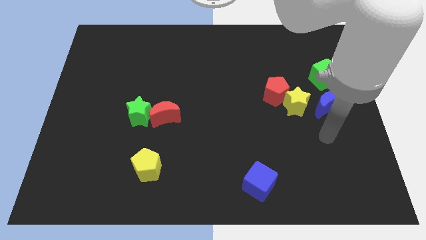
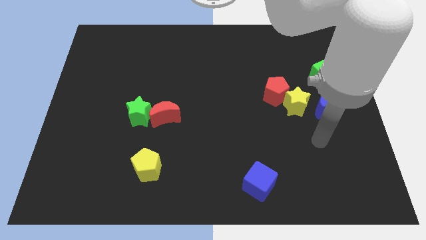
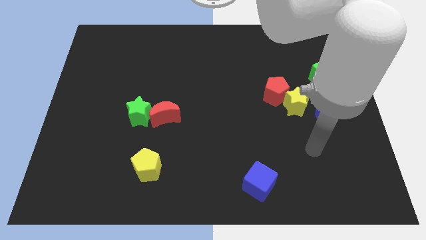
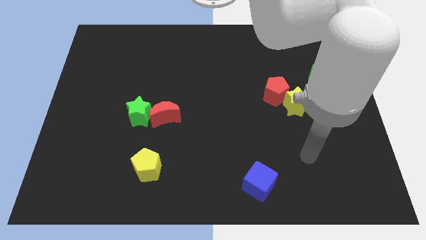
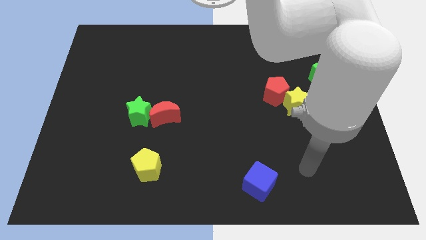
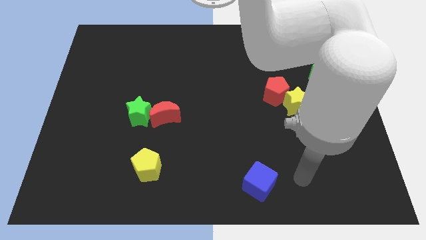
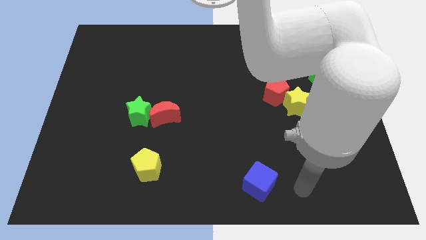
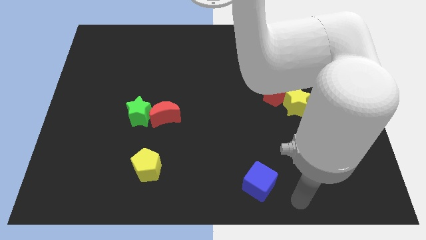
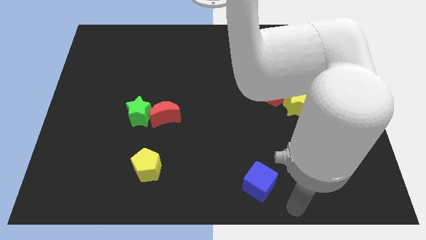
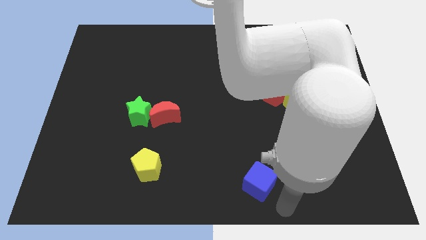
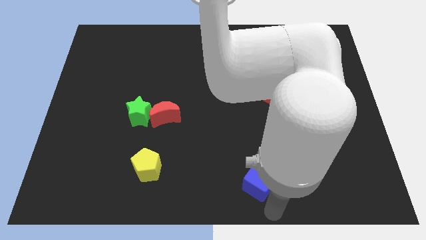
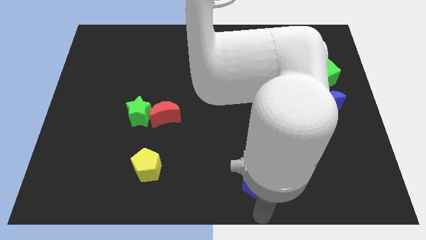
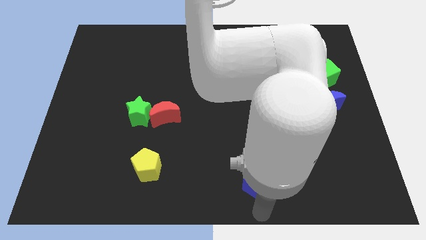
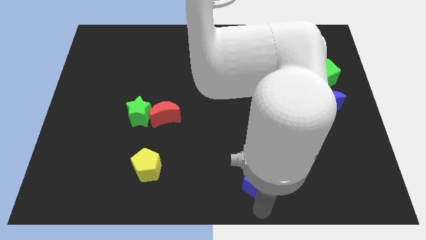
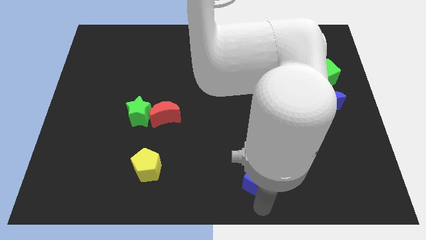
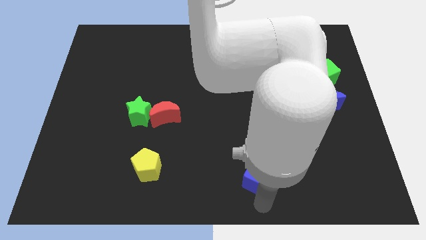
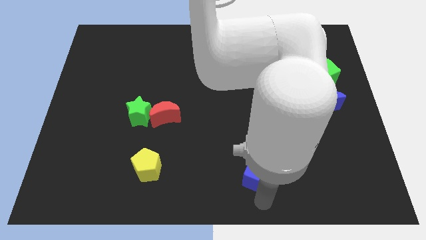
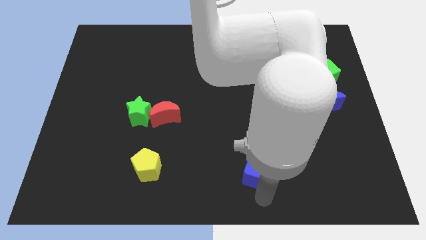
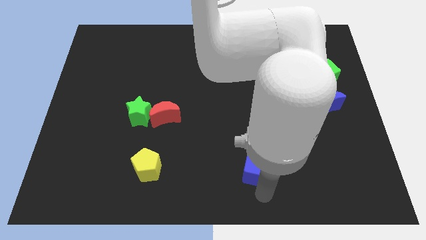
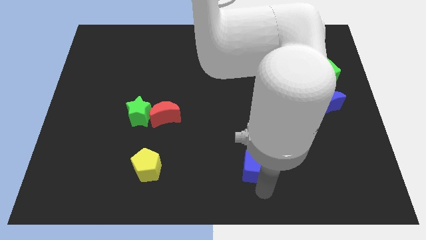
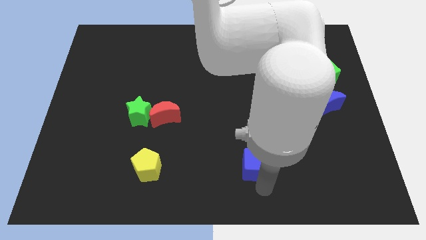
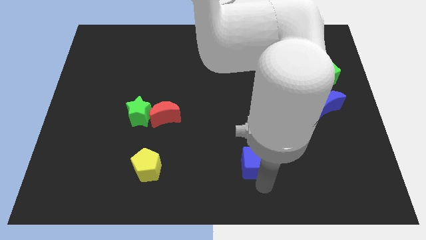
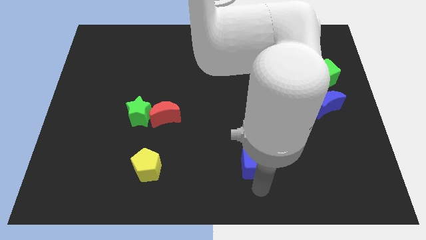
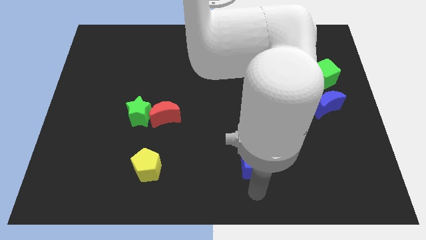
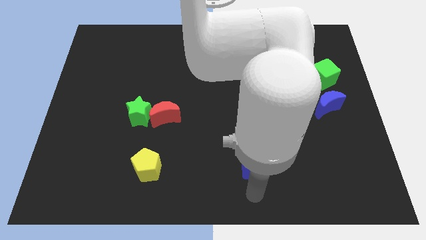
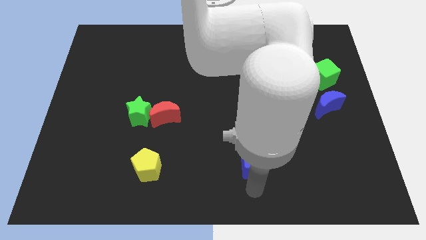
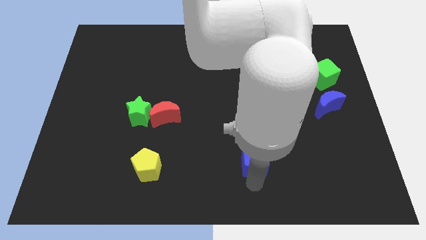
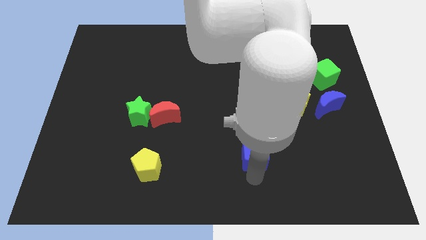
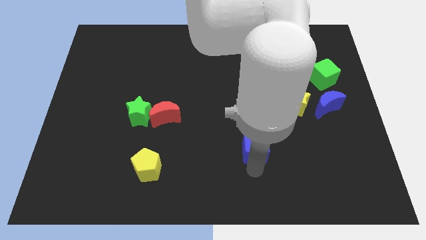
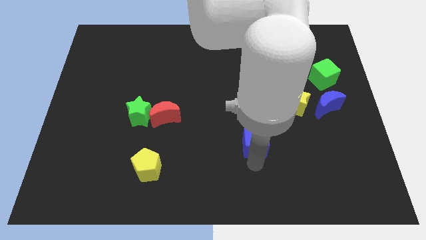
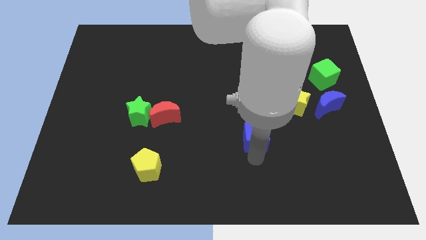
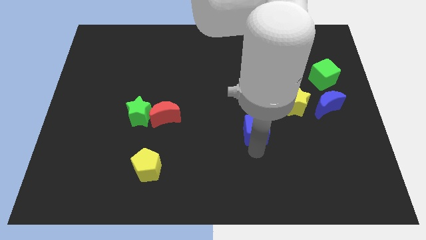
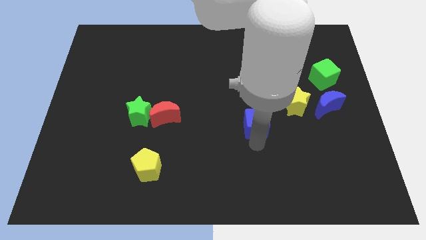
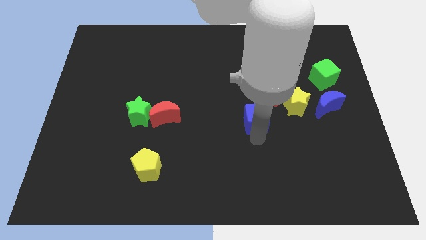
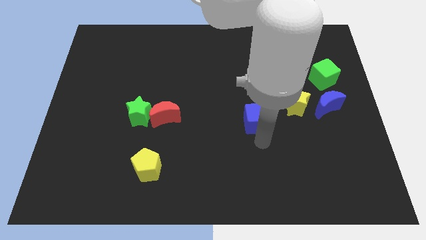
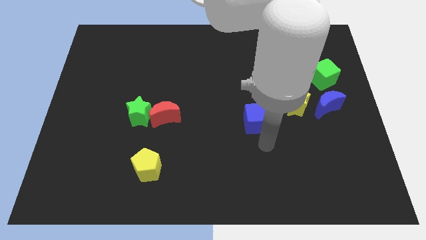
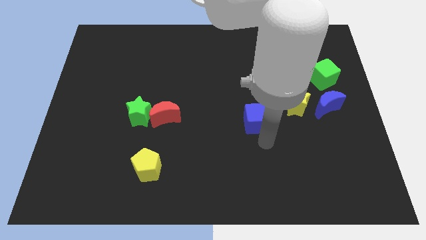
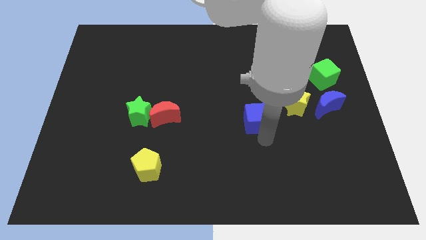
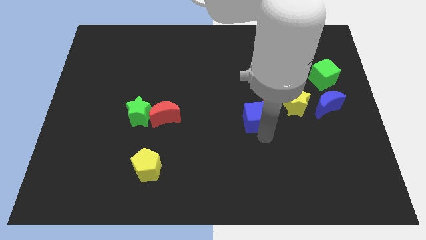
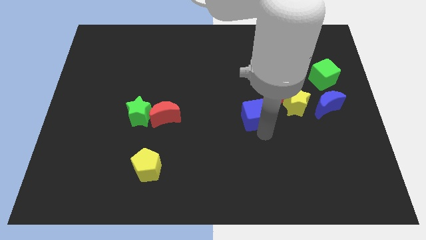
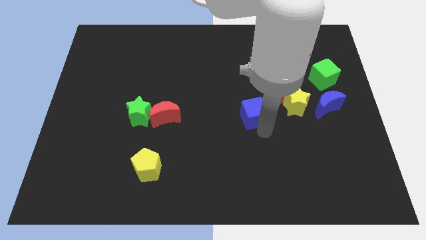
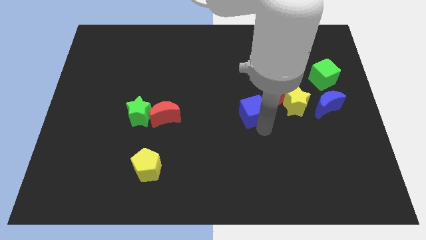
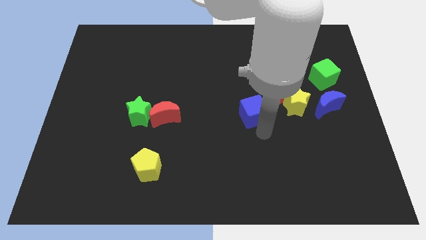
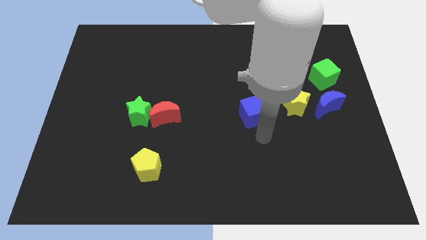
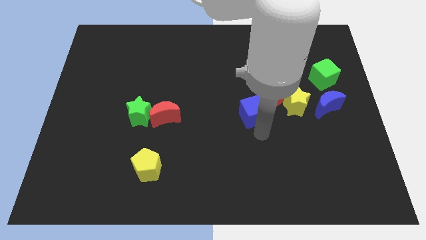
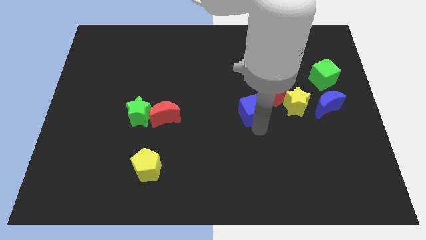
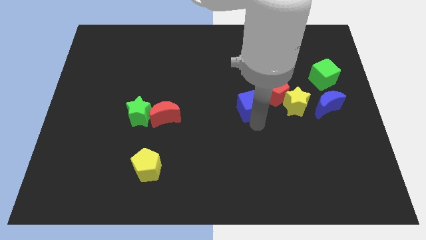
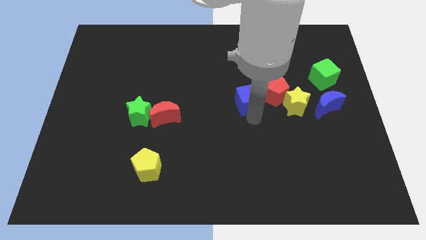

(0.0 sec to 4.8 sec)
slide the blue cube up

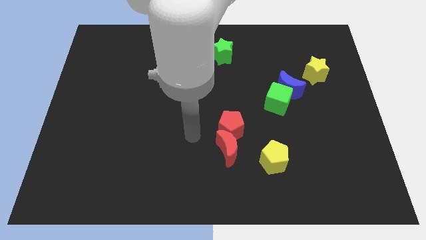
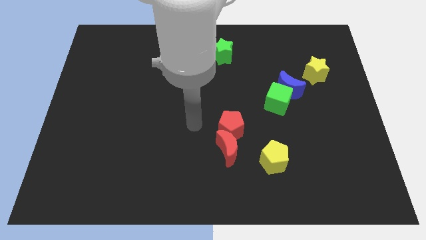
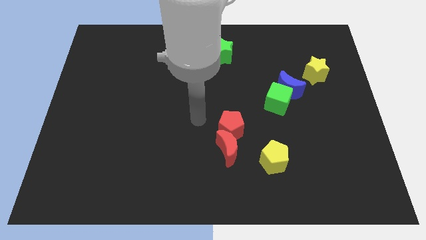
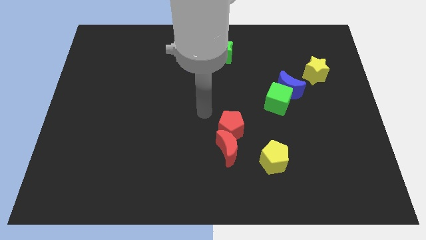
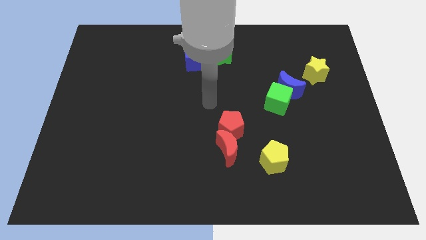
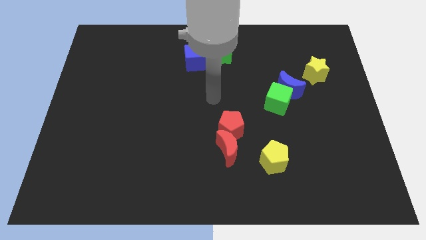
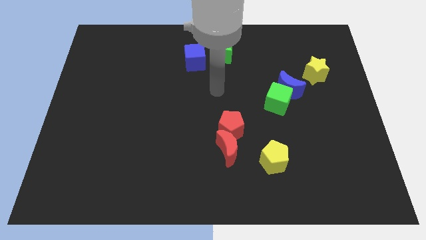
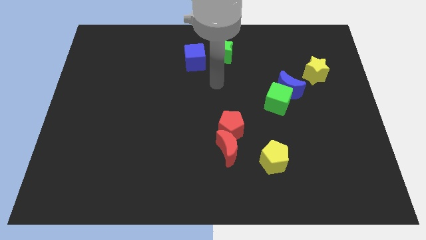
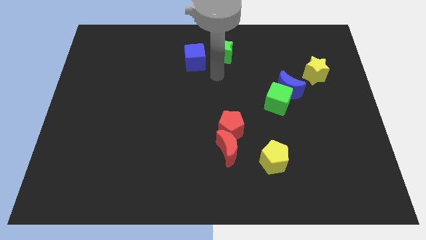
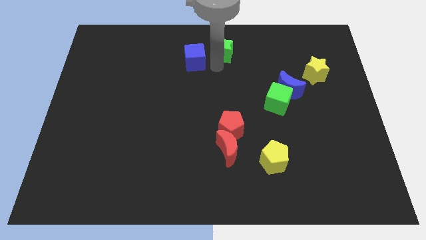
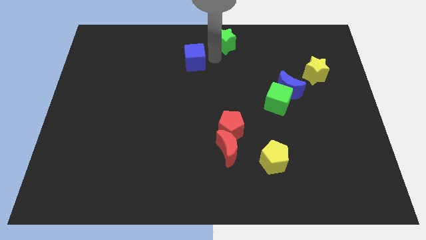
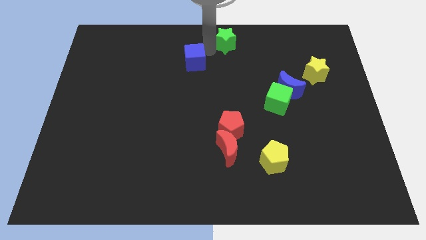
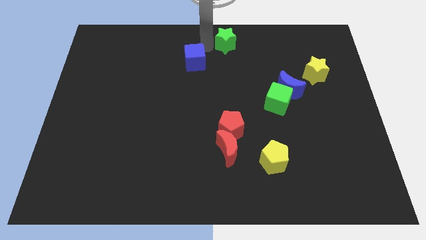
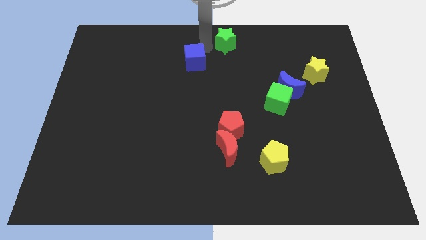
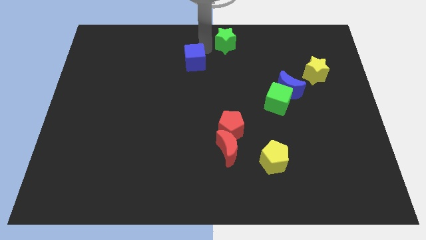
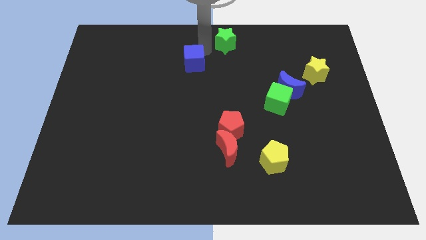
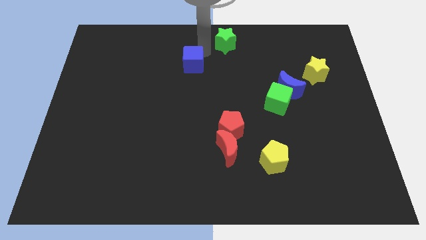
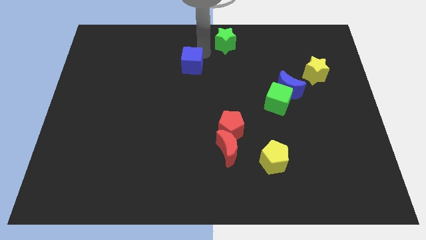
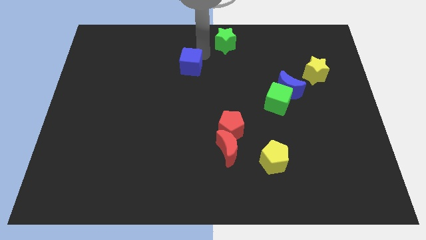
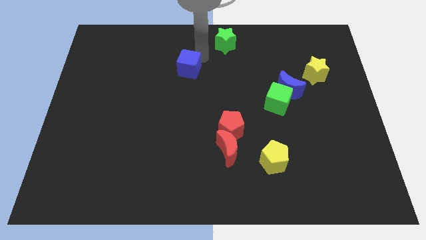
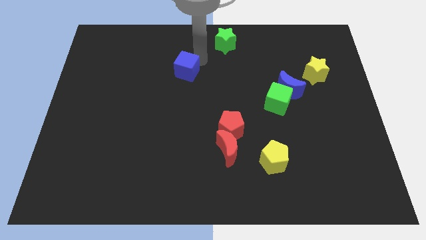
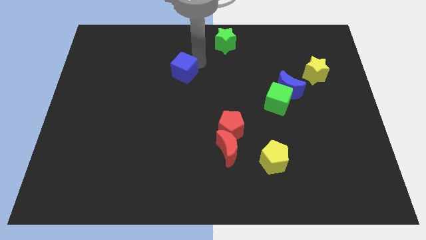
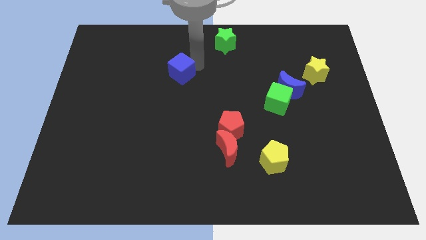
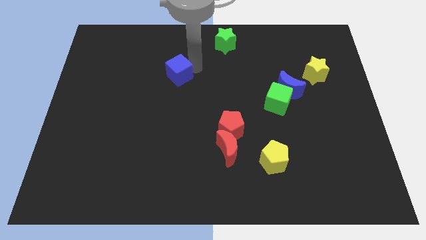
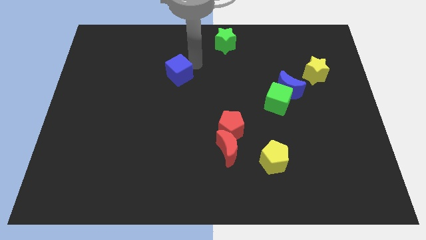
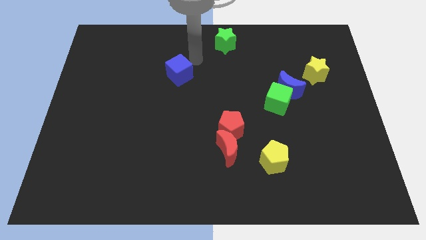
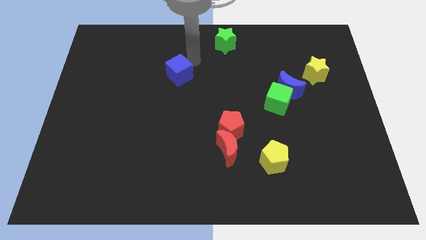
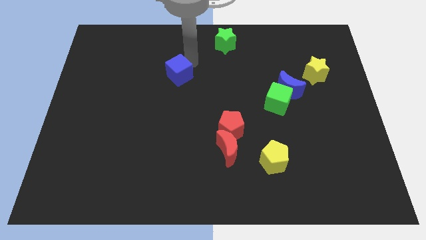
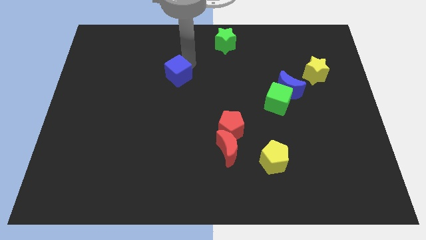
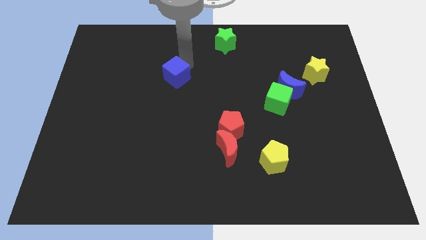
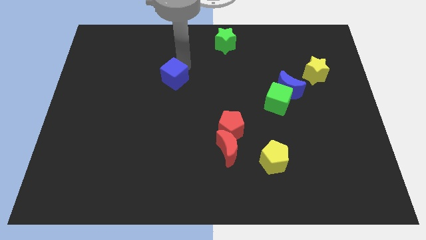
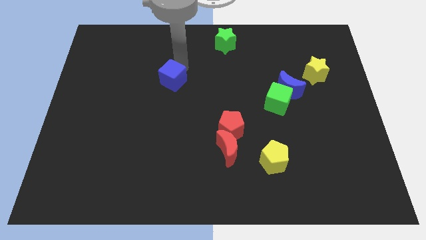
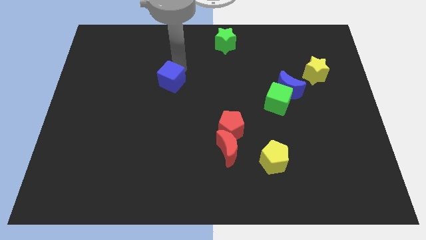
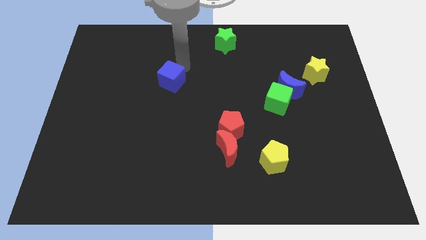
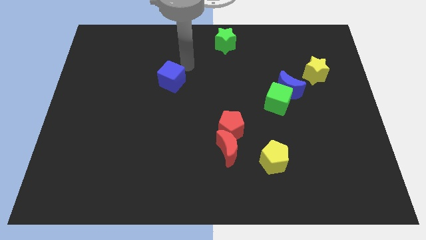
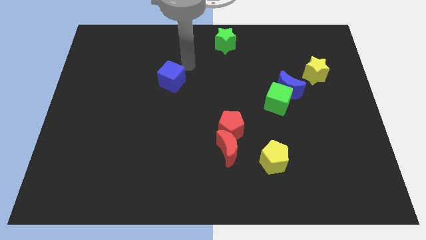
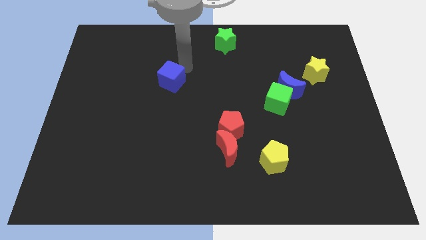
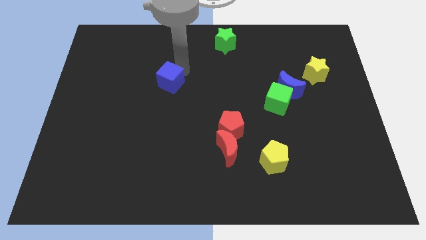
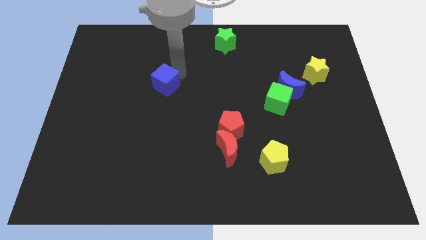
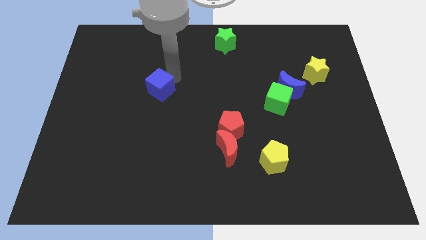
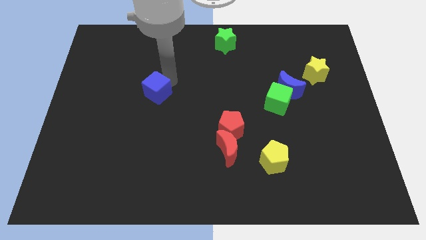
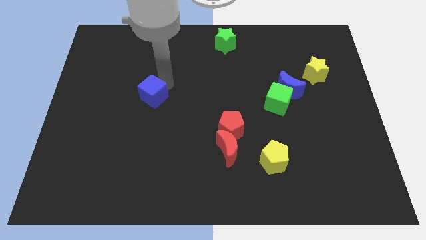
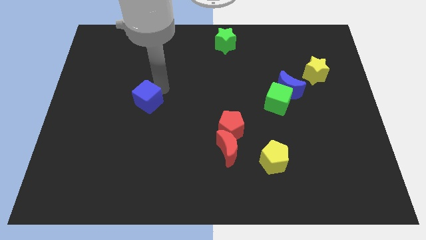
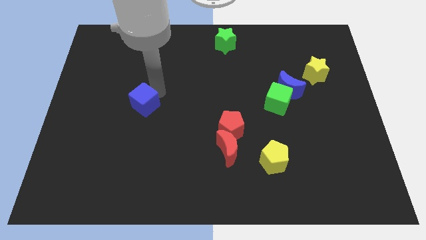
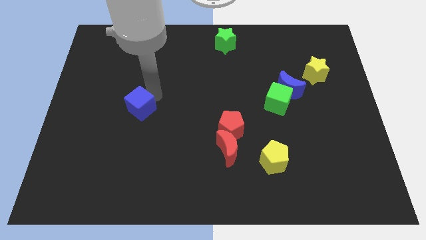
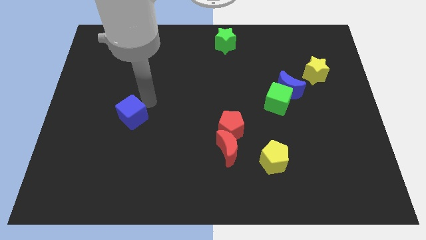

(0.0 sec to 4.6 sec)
push the blue cube down and to the left
